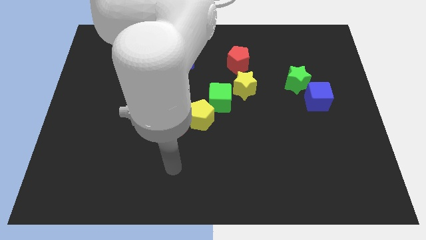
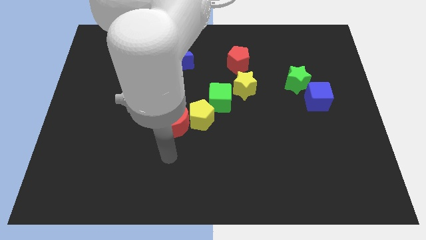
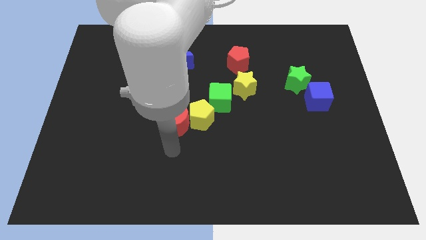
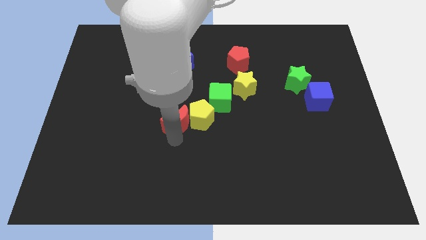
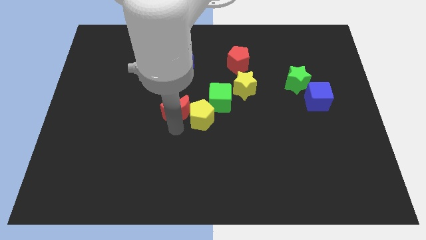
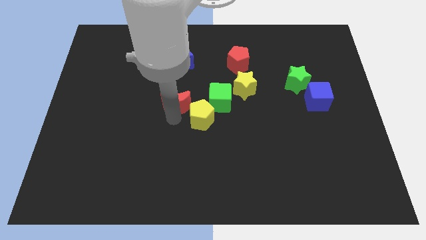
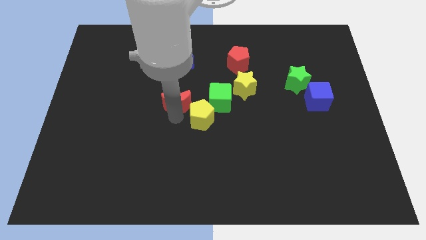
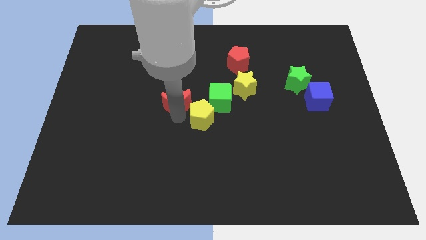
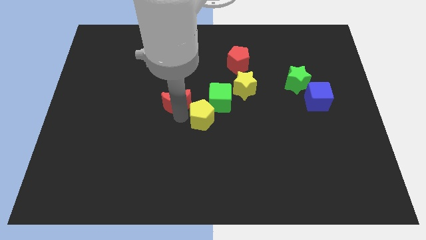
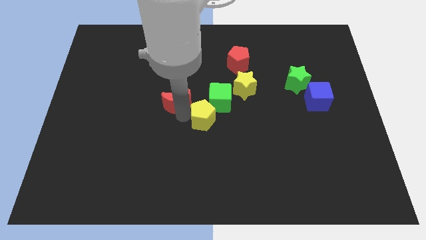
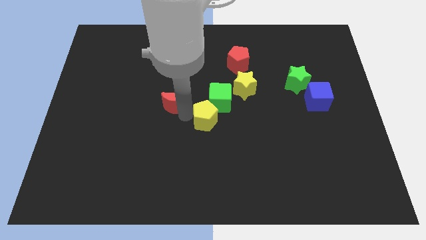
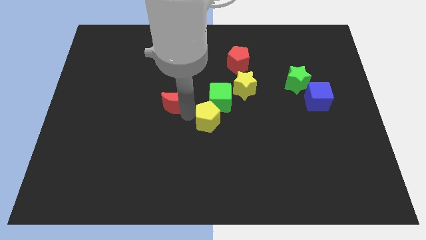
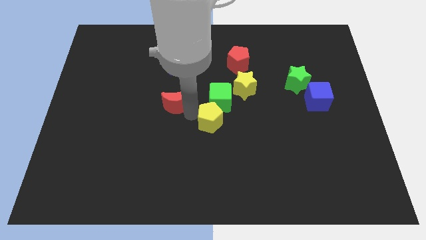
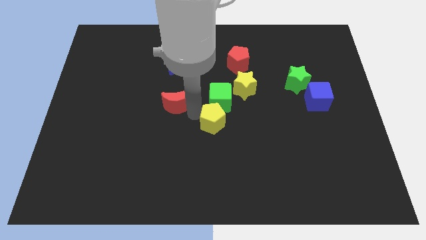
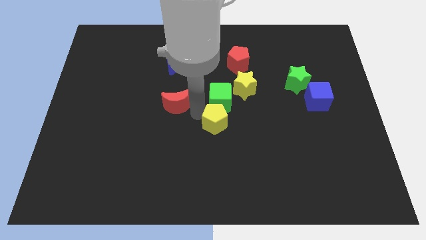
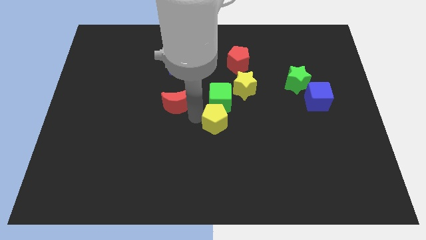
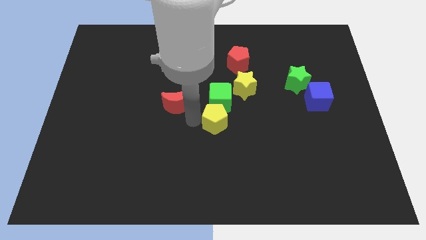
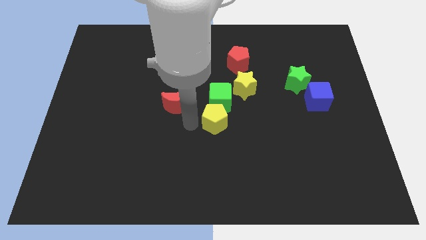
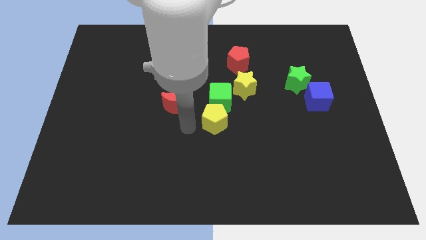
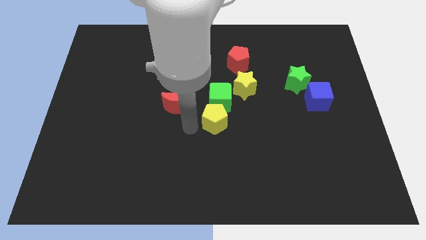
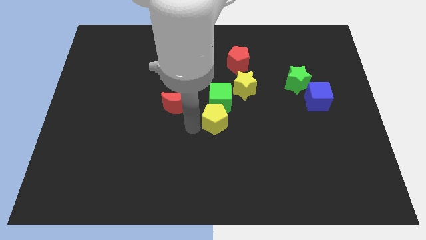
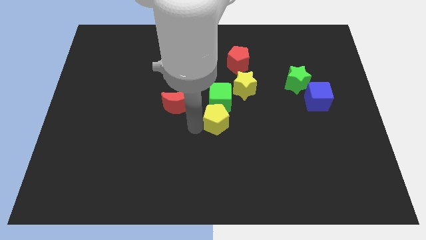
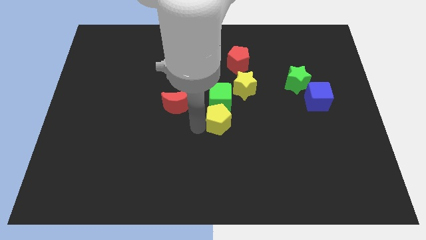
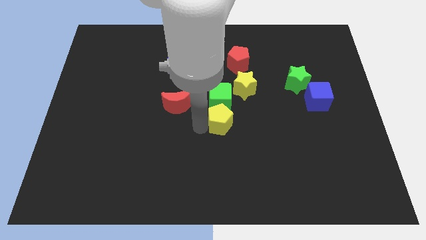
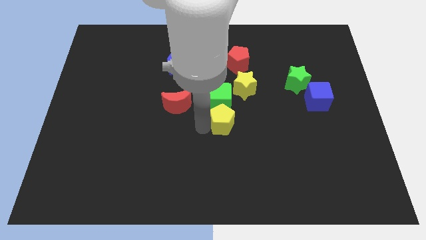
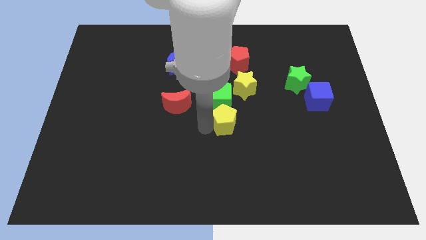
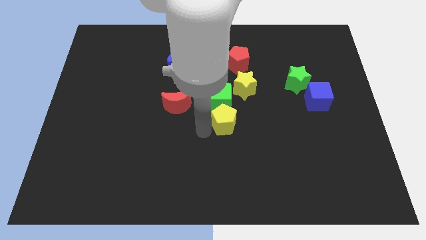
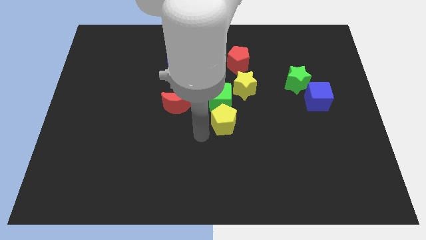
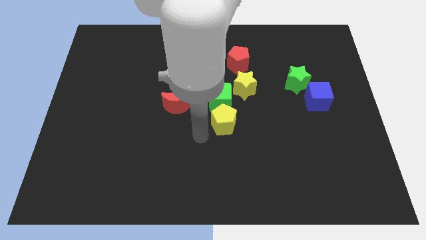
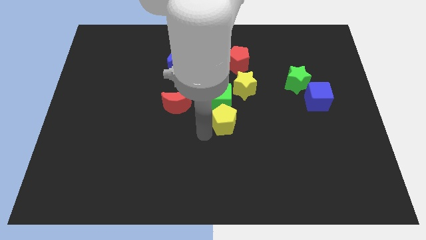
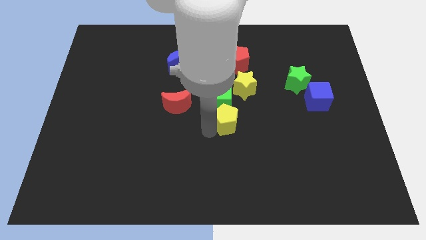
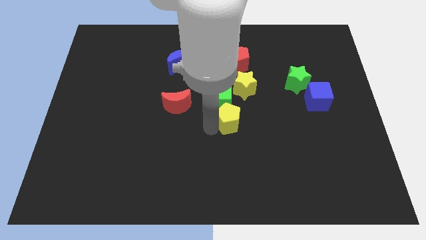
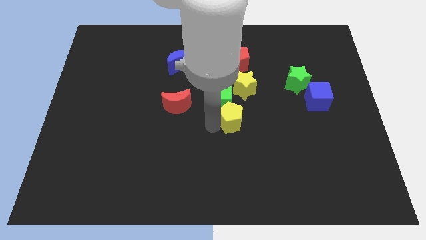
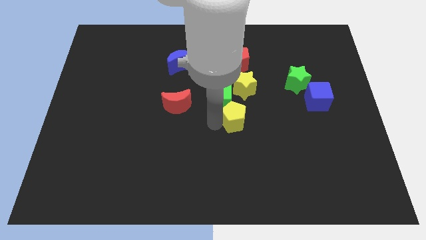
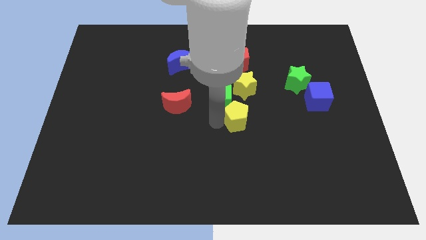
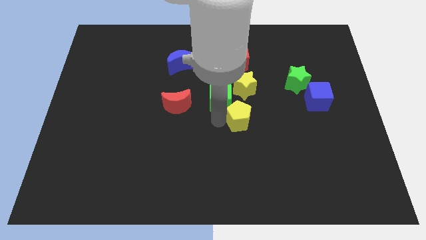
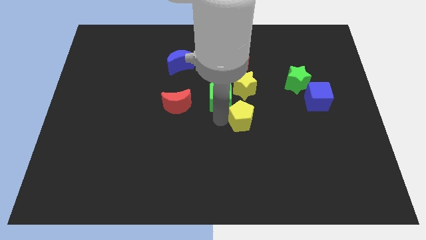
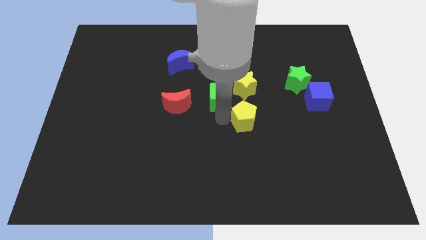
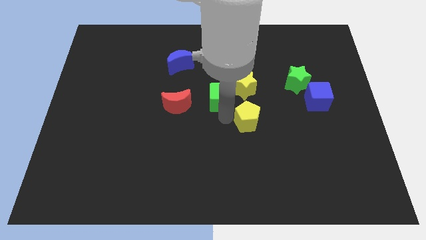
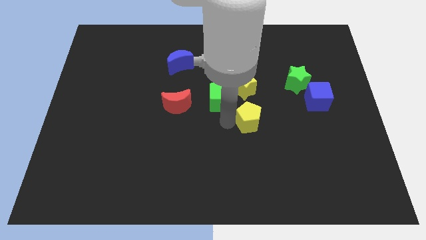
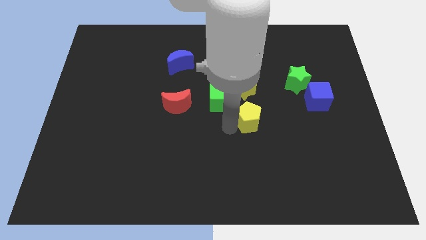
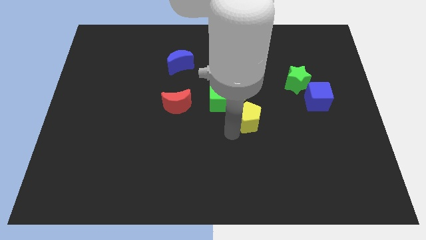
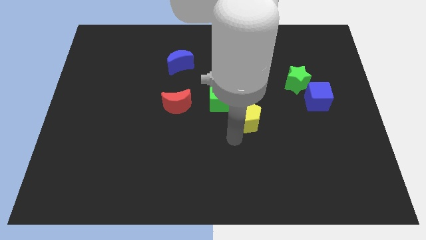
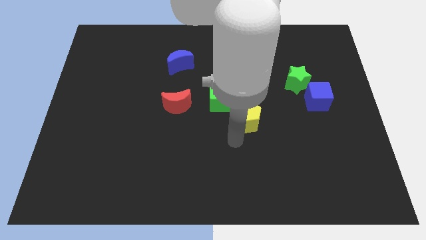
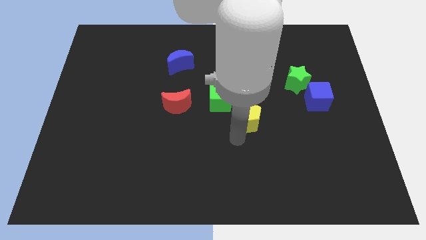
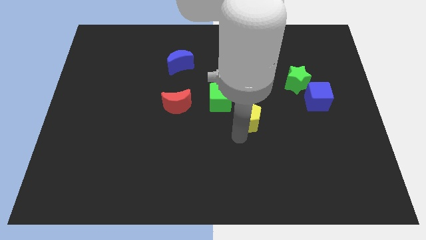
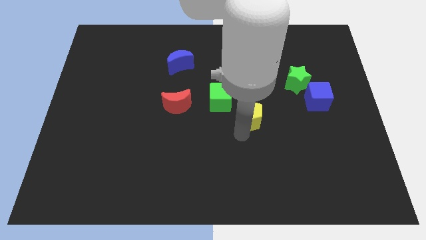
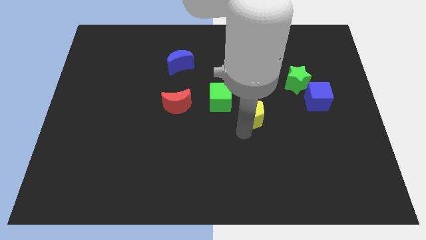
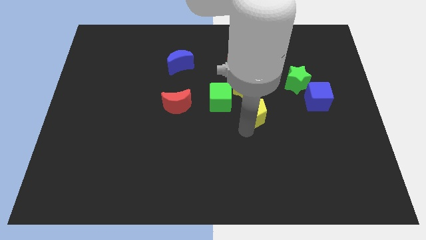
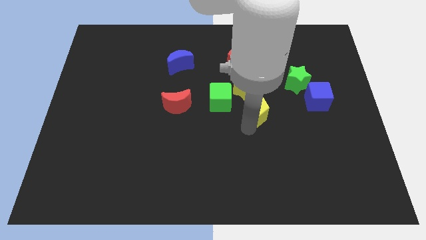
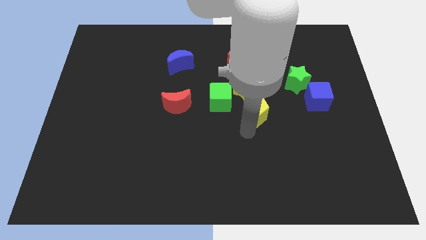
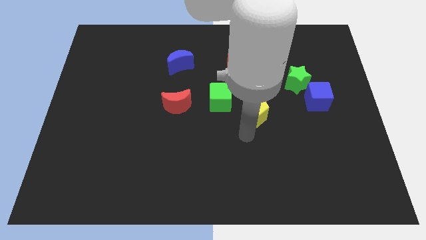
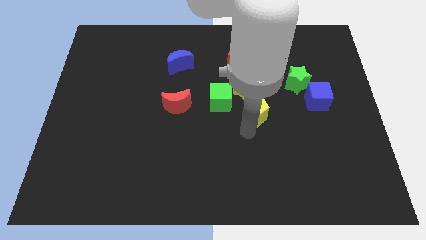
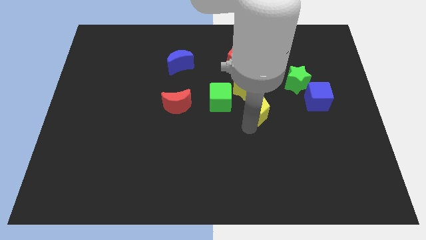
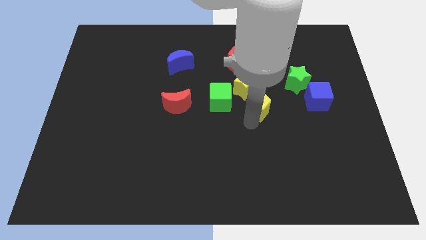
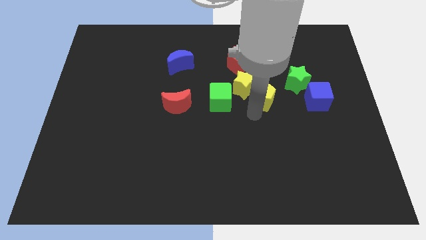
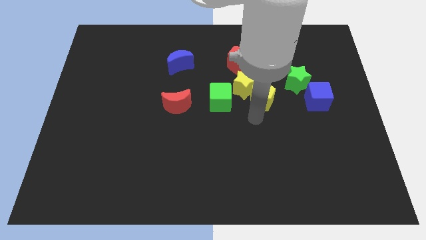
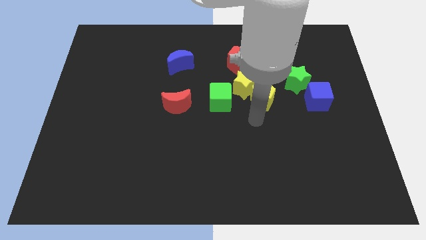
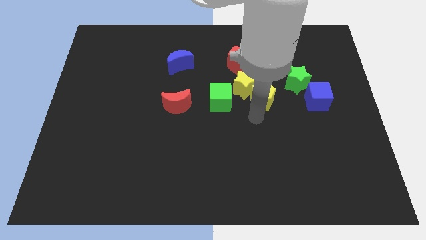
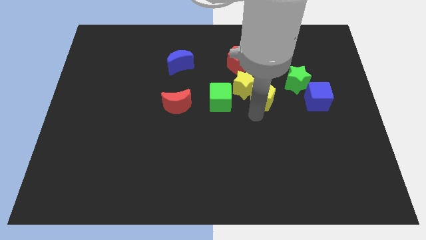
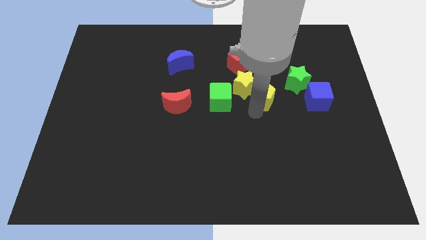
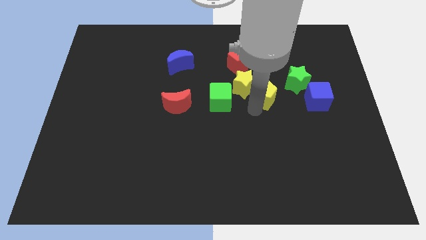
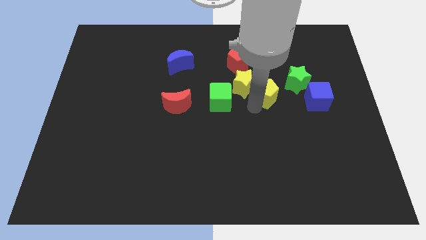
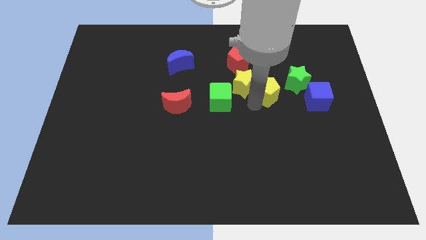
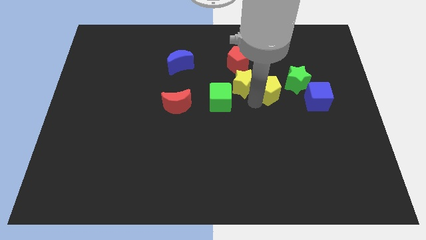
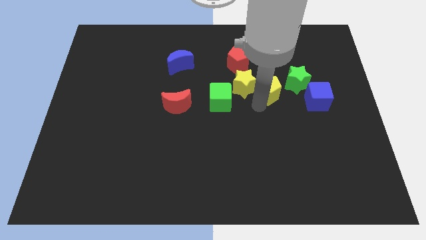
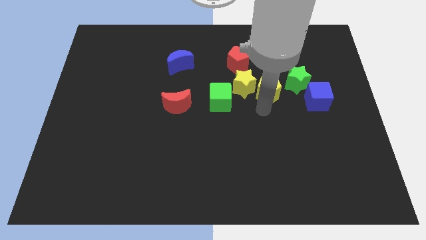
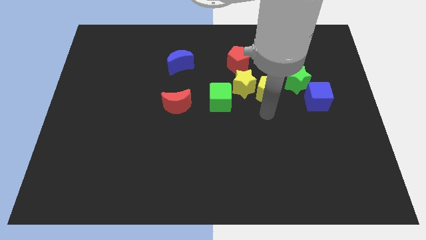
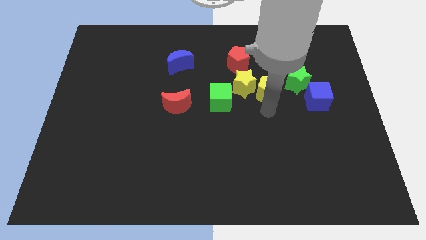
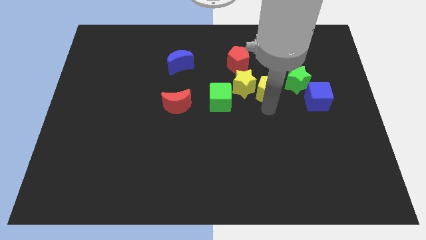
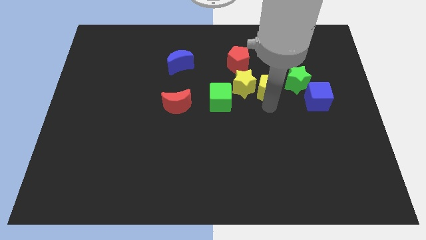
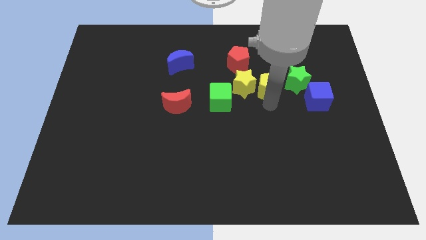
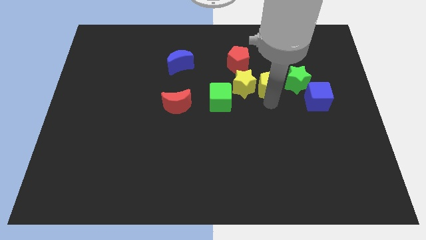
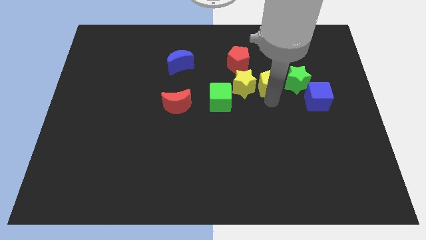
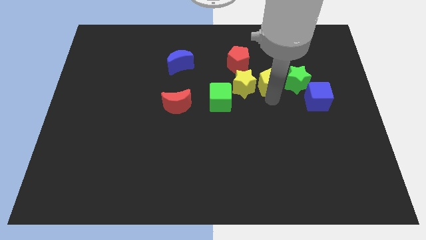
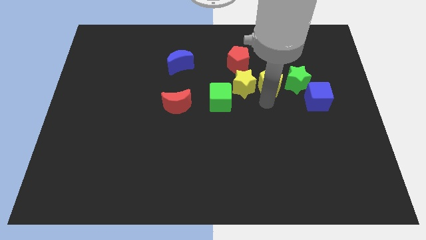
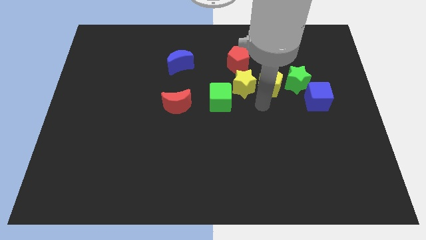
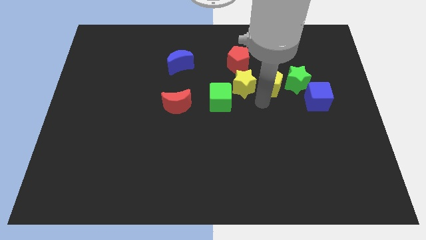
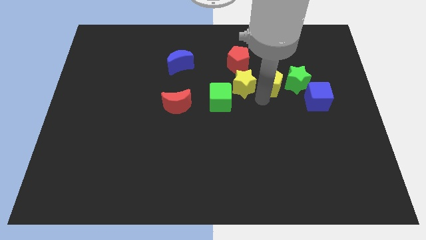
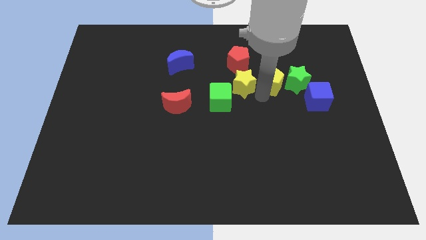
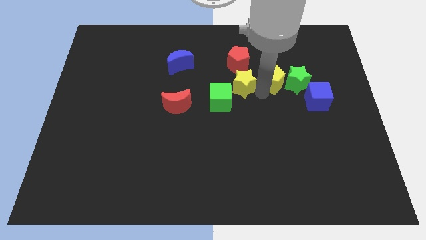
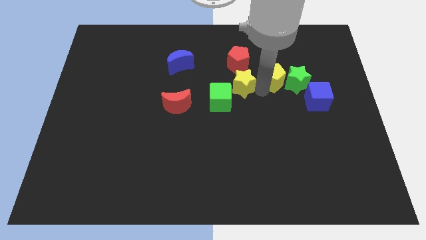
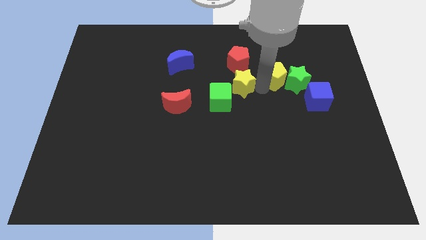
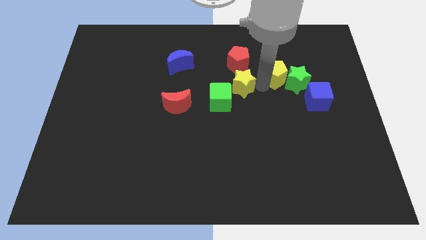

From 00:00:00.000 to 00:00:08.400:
slide the yellow pentagon just right of the red pentagon
